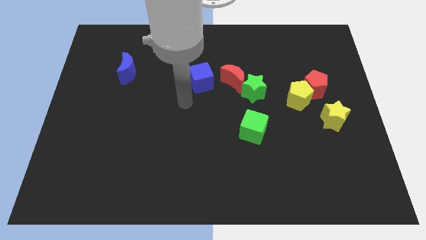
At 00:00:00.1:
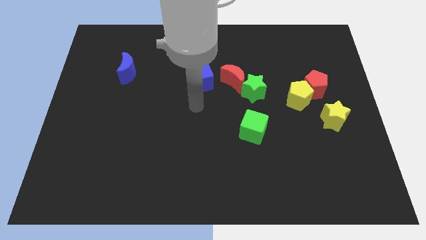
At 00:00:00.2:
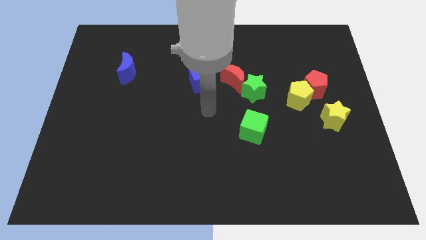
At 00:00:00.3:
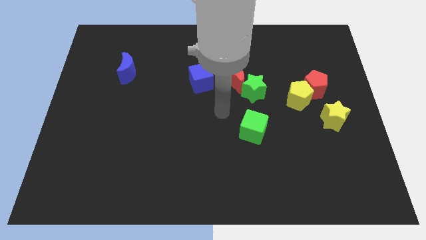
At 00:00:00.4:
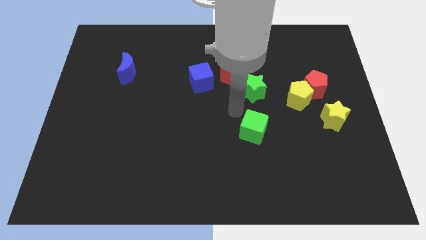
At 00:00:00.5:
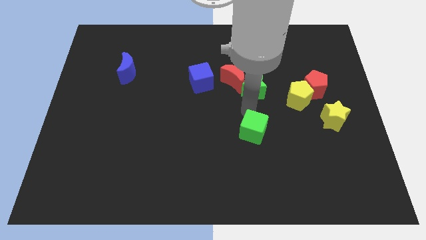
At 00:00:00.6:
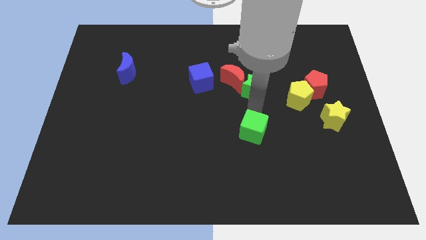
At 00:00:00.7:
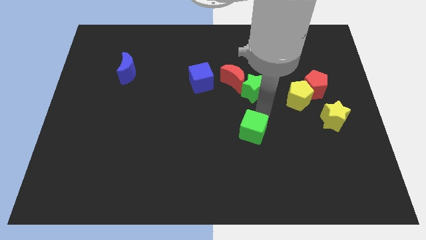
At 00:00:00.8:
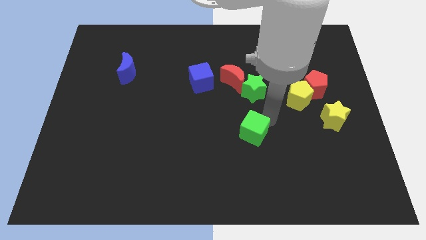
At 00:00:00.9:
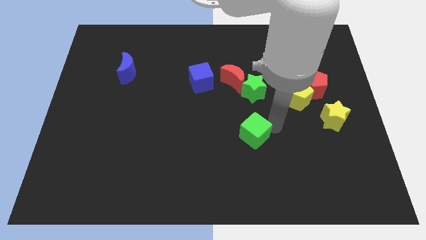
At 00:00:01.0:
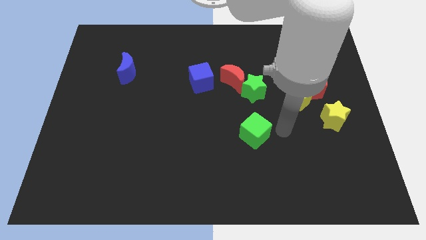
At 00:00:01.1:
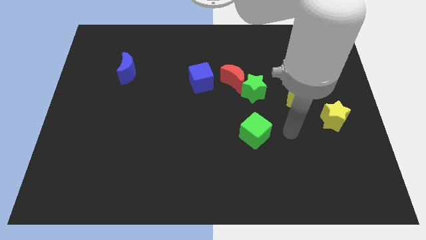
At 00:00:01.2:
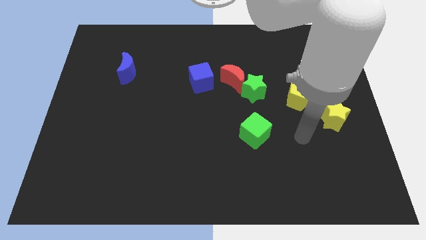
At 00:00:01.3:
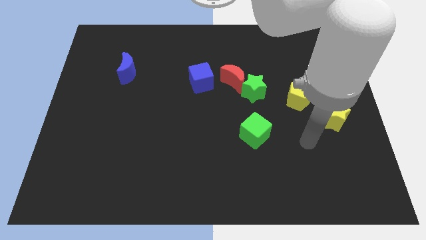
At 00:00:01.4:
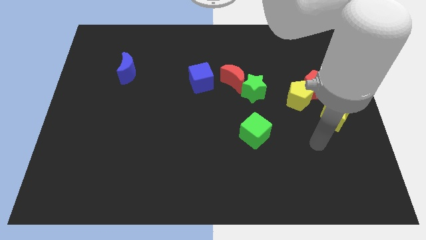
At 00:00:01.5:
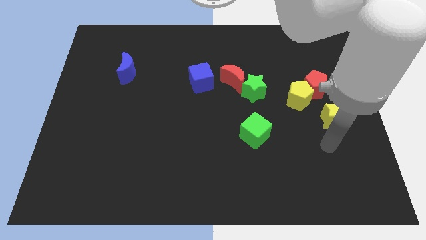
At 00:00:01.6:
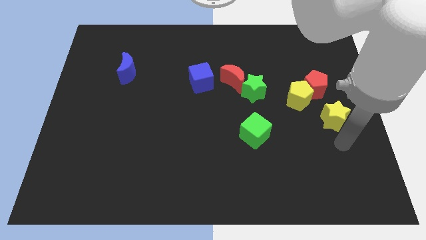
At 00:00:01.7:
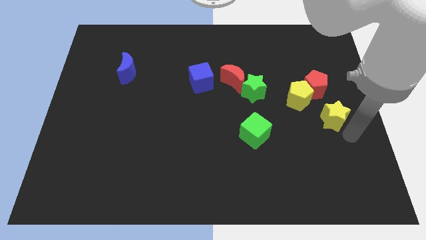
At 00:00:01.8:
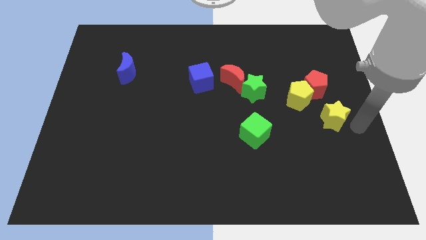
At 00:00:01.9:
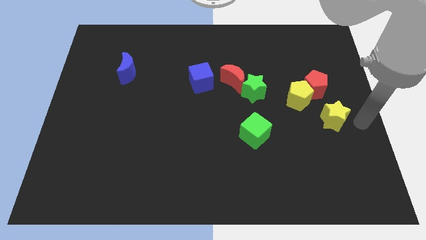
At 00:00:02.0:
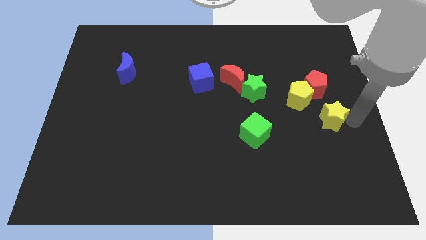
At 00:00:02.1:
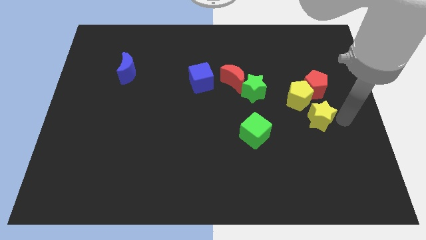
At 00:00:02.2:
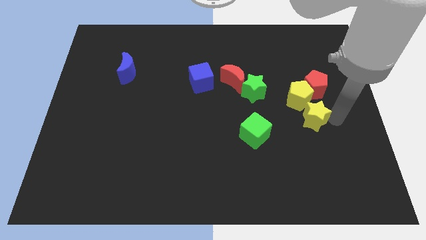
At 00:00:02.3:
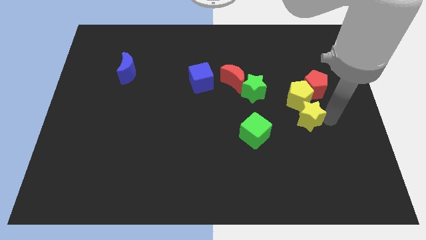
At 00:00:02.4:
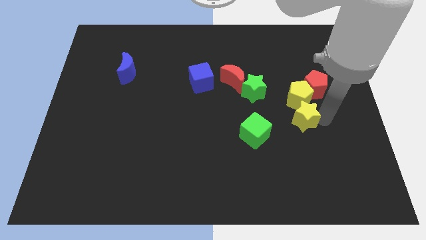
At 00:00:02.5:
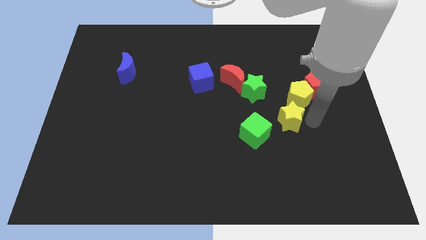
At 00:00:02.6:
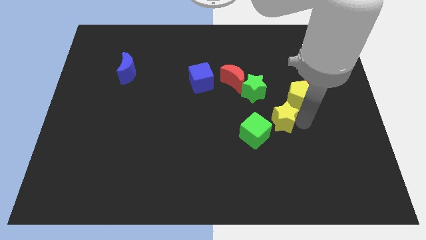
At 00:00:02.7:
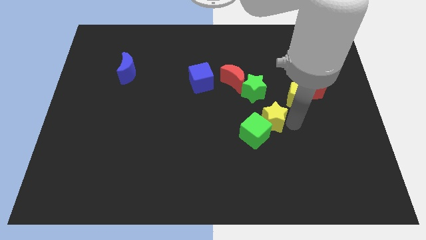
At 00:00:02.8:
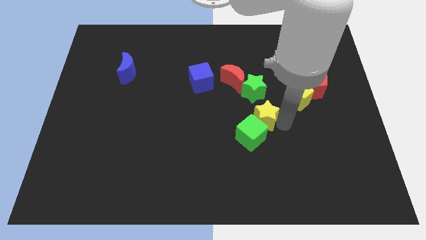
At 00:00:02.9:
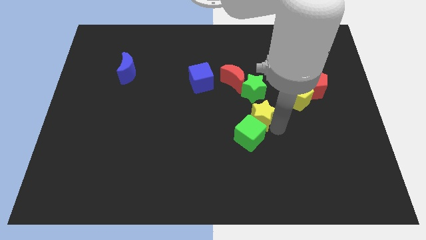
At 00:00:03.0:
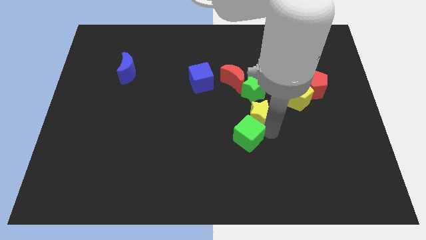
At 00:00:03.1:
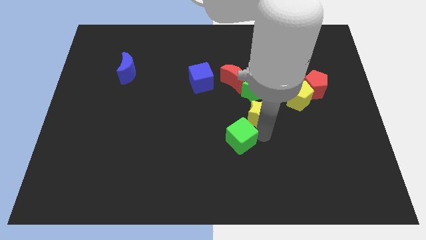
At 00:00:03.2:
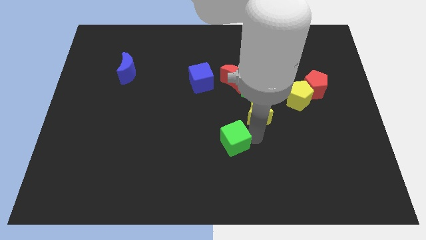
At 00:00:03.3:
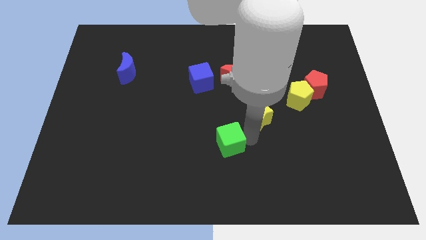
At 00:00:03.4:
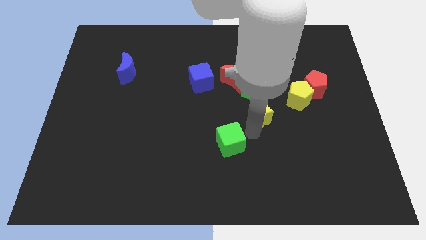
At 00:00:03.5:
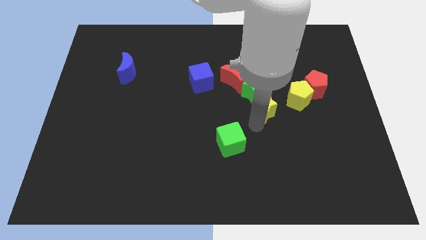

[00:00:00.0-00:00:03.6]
move the yellow star a bit diagonally up and left

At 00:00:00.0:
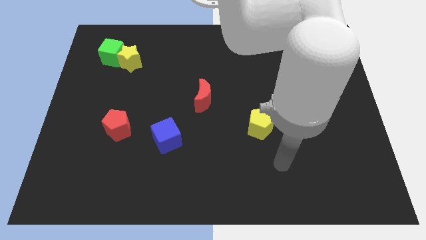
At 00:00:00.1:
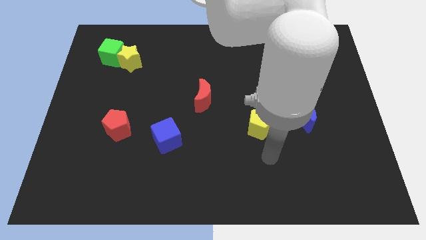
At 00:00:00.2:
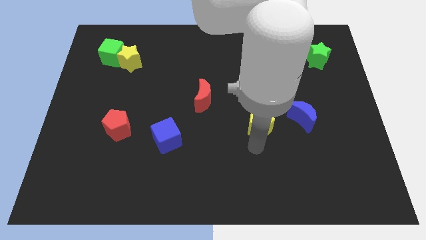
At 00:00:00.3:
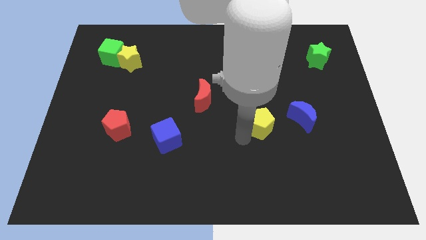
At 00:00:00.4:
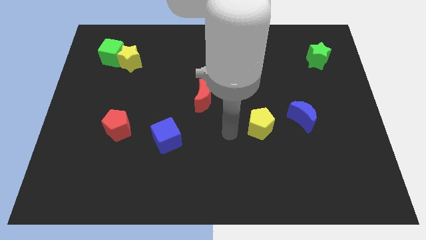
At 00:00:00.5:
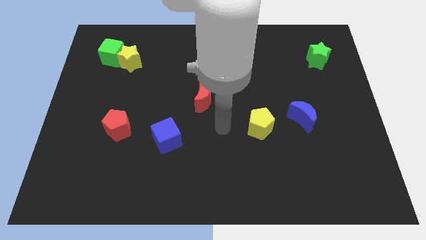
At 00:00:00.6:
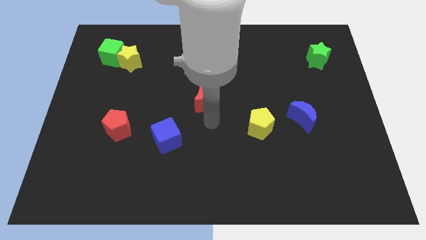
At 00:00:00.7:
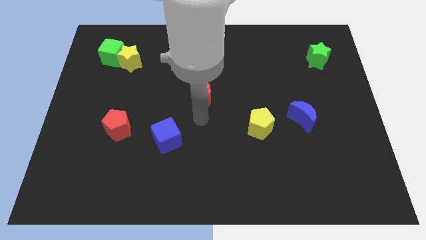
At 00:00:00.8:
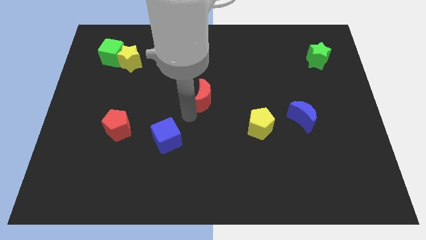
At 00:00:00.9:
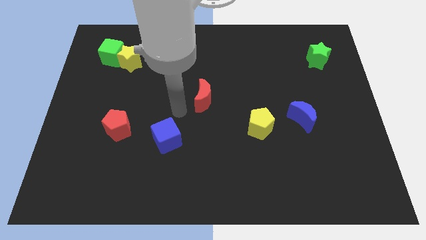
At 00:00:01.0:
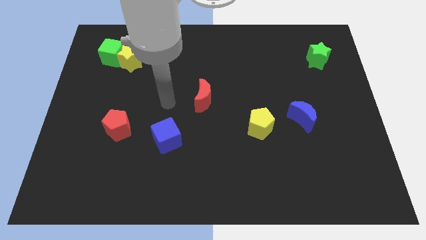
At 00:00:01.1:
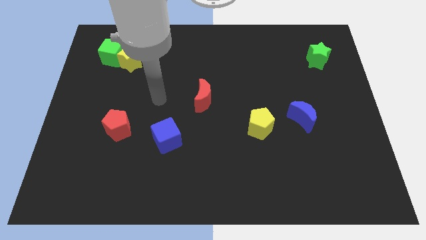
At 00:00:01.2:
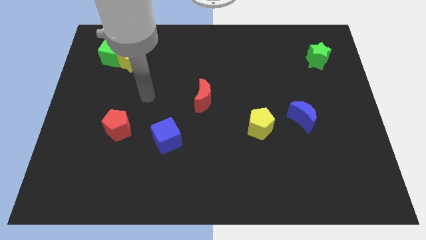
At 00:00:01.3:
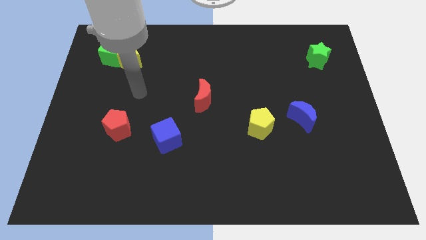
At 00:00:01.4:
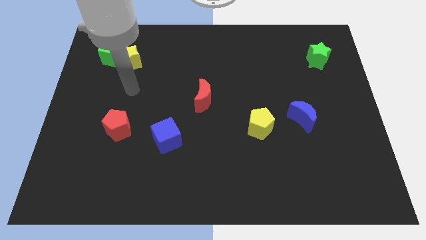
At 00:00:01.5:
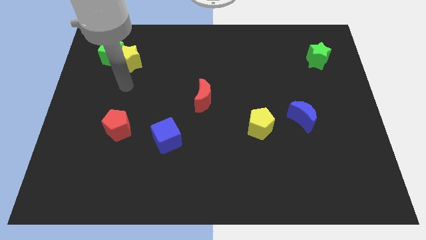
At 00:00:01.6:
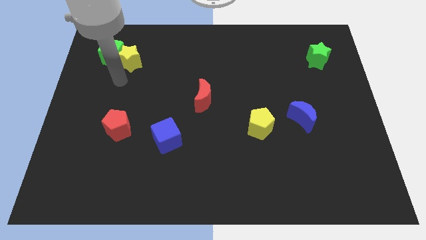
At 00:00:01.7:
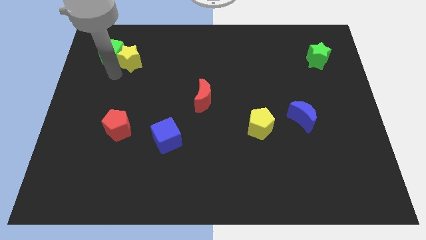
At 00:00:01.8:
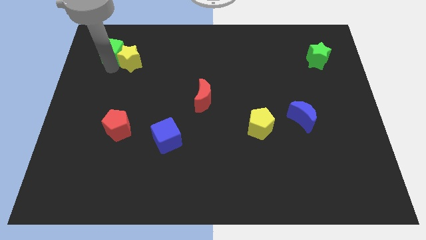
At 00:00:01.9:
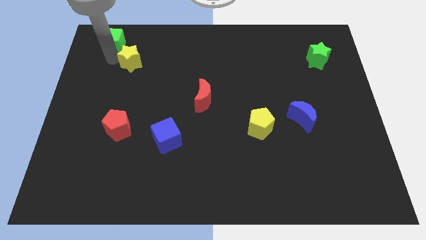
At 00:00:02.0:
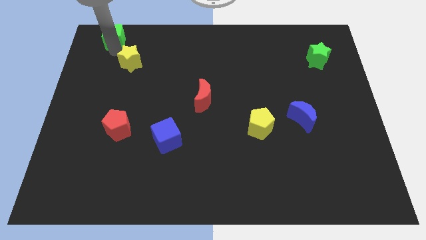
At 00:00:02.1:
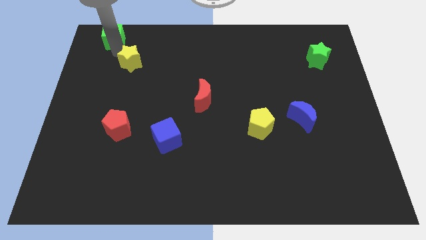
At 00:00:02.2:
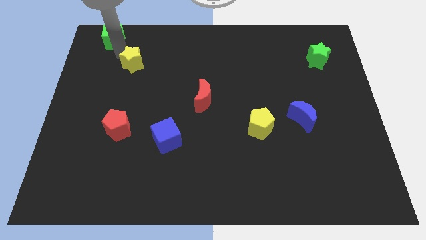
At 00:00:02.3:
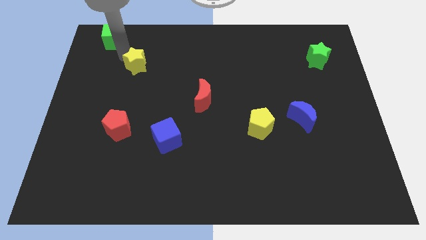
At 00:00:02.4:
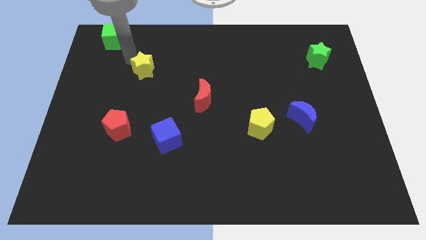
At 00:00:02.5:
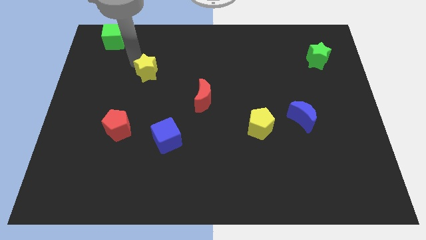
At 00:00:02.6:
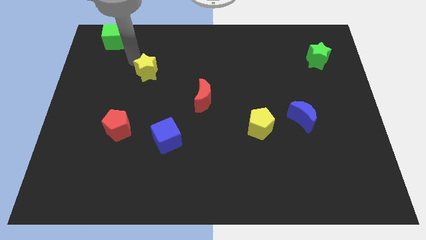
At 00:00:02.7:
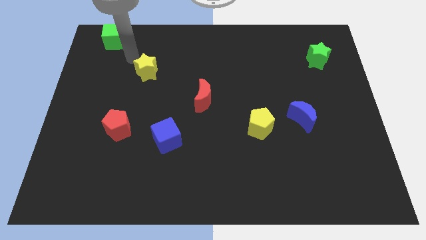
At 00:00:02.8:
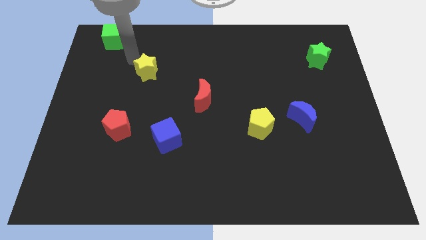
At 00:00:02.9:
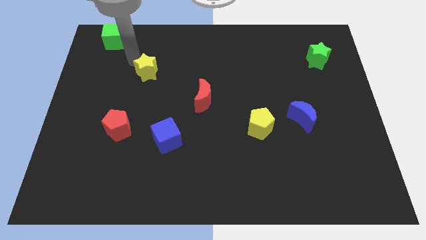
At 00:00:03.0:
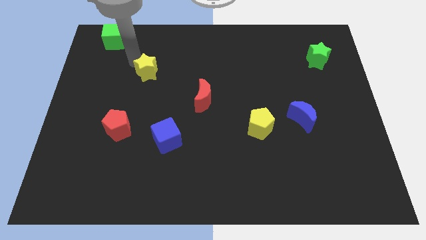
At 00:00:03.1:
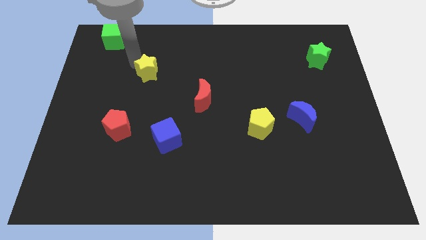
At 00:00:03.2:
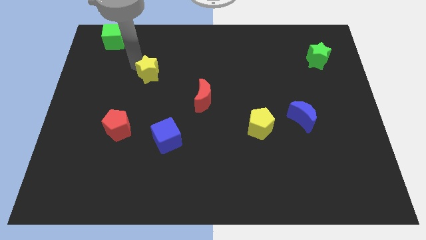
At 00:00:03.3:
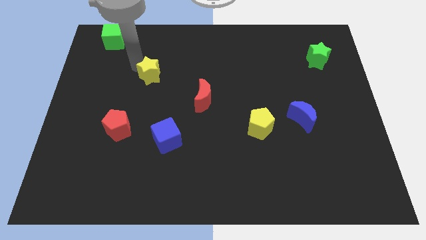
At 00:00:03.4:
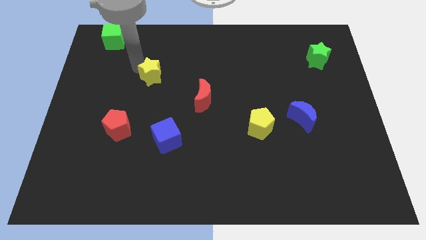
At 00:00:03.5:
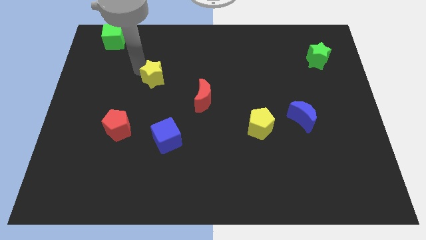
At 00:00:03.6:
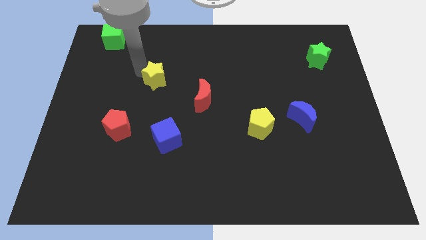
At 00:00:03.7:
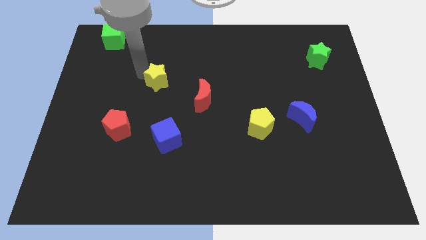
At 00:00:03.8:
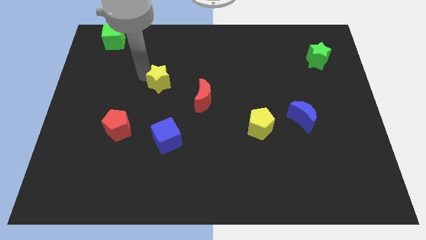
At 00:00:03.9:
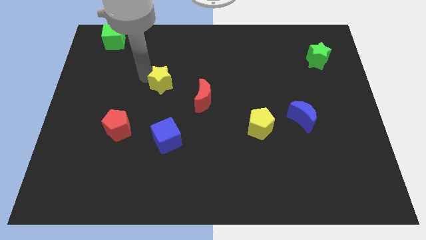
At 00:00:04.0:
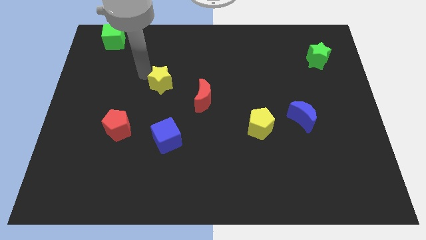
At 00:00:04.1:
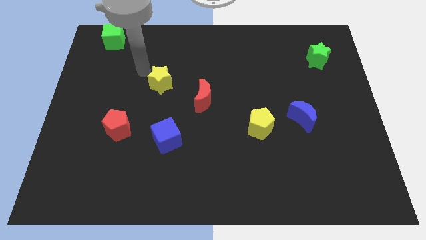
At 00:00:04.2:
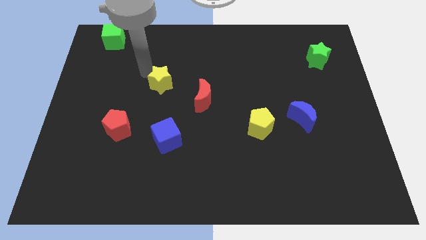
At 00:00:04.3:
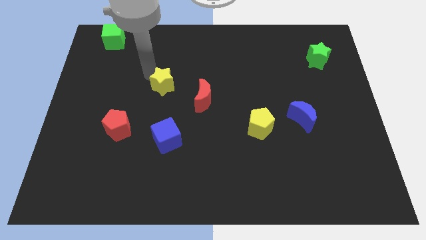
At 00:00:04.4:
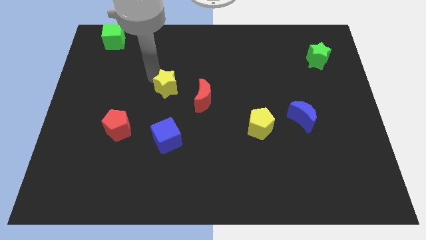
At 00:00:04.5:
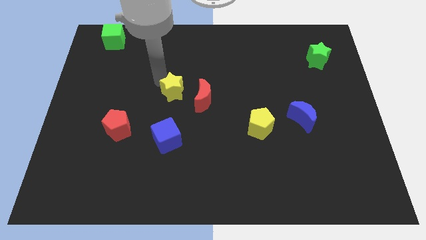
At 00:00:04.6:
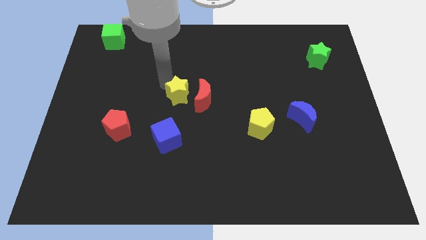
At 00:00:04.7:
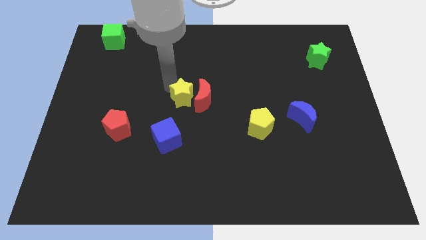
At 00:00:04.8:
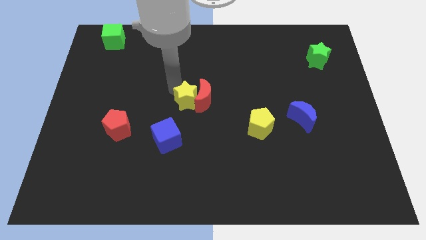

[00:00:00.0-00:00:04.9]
move the yellow star downwards and right diagonally
